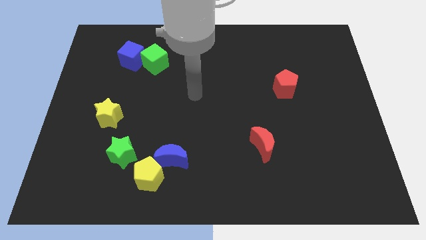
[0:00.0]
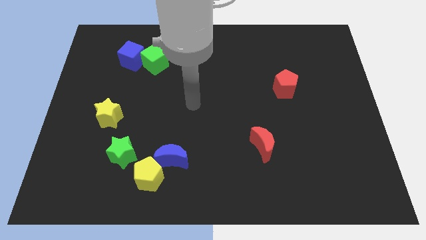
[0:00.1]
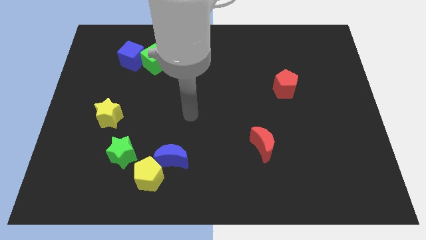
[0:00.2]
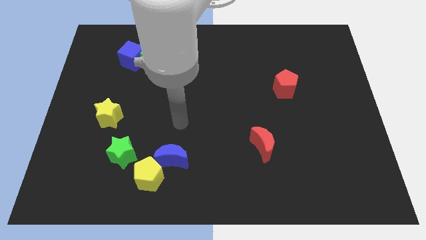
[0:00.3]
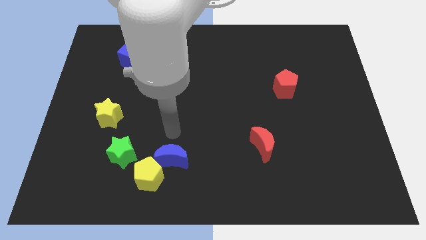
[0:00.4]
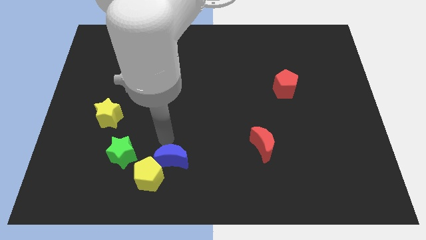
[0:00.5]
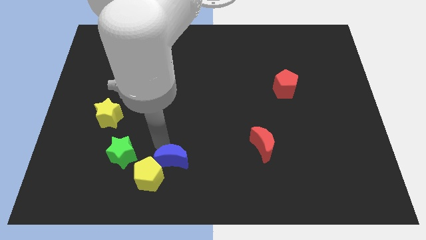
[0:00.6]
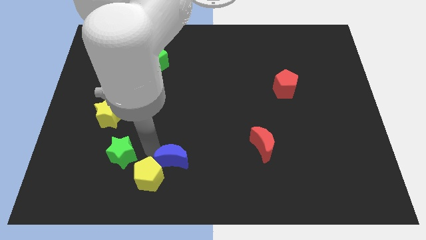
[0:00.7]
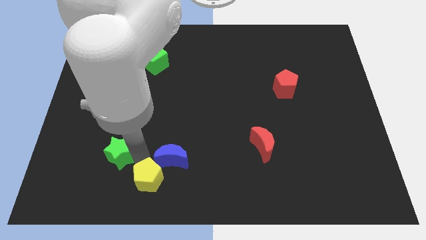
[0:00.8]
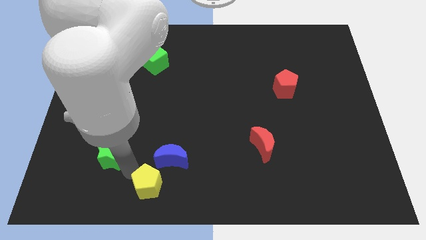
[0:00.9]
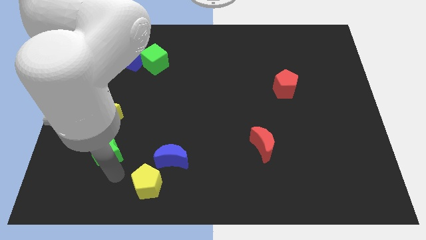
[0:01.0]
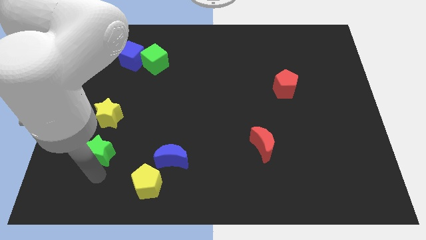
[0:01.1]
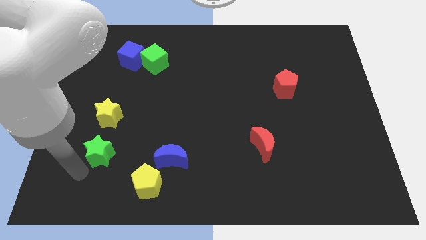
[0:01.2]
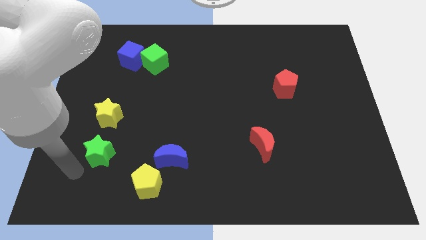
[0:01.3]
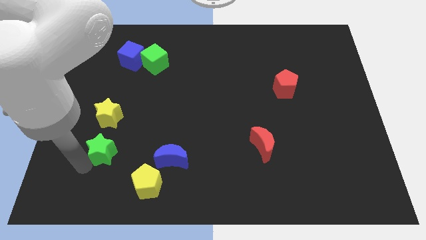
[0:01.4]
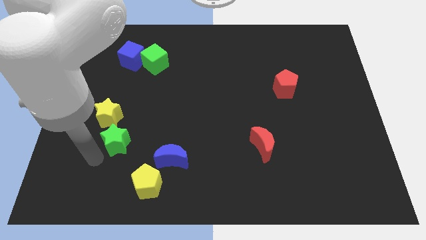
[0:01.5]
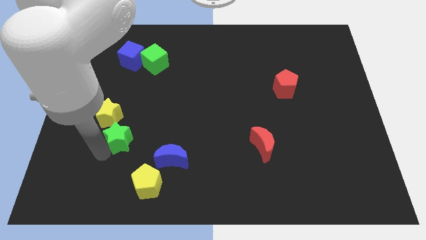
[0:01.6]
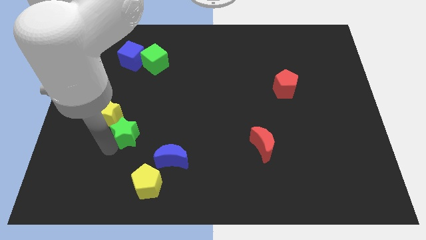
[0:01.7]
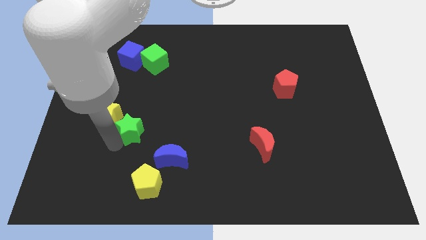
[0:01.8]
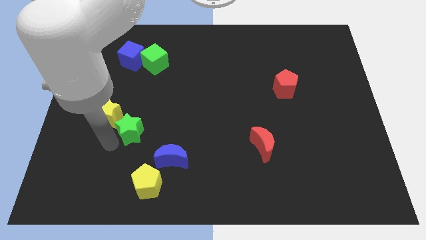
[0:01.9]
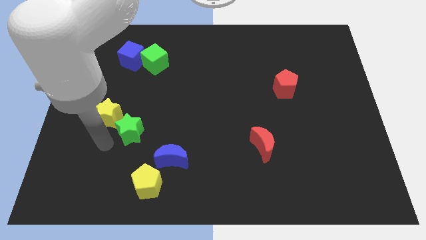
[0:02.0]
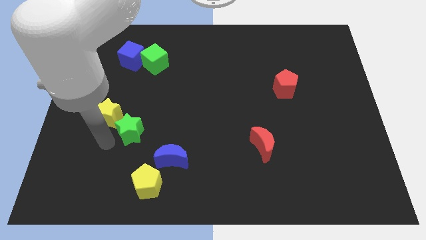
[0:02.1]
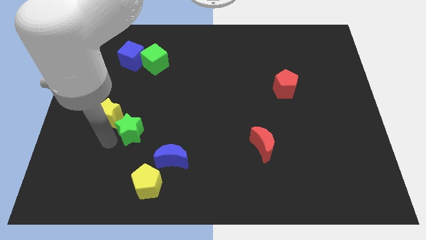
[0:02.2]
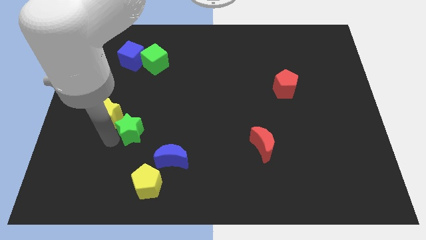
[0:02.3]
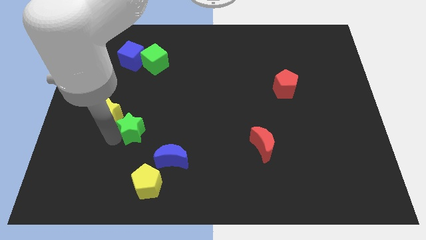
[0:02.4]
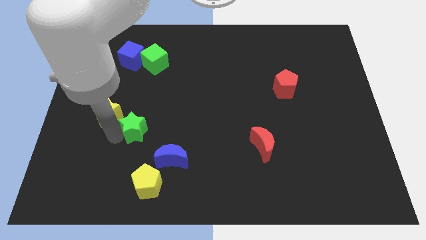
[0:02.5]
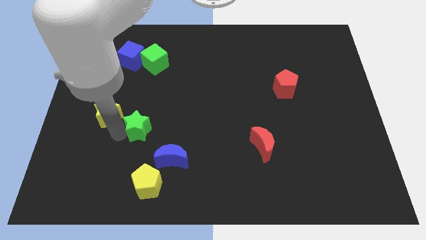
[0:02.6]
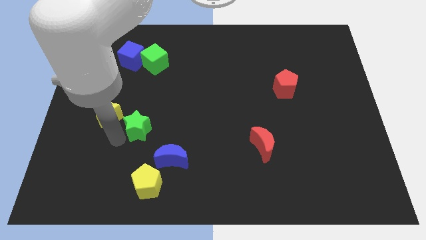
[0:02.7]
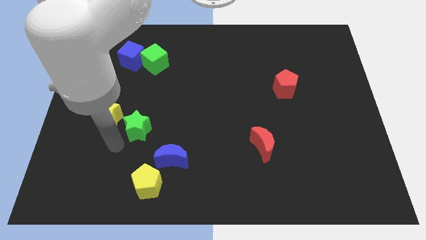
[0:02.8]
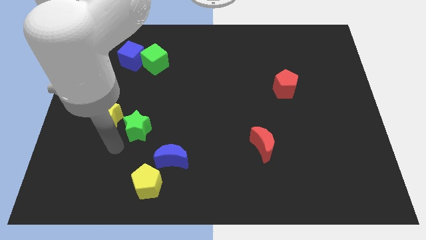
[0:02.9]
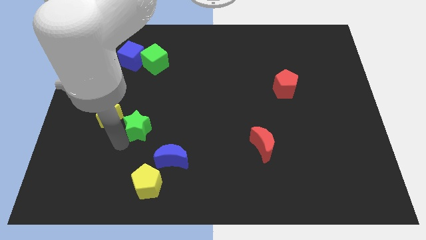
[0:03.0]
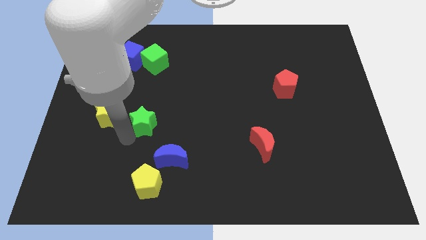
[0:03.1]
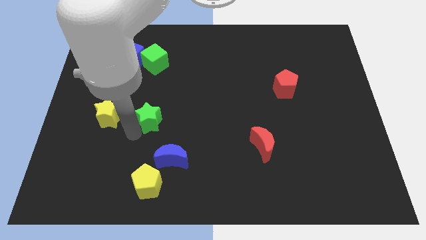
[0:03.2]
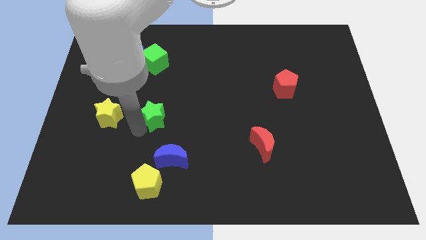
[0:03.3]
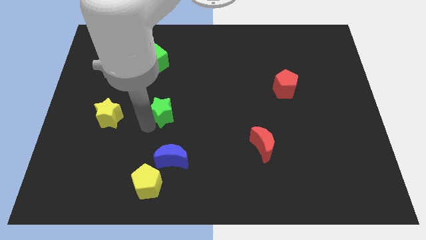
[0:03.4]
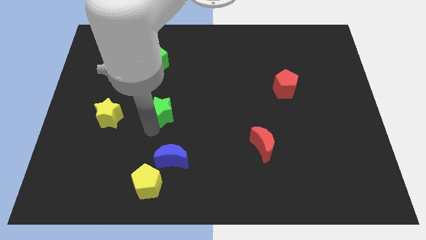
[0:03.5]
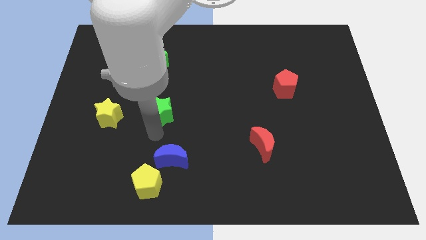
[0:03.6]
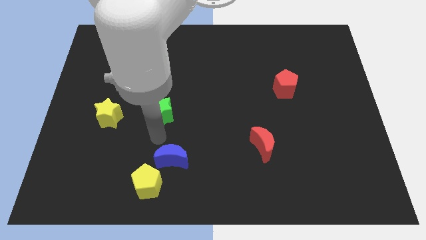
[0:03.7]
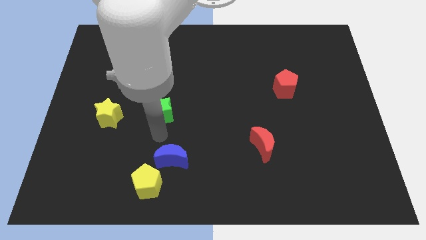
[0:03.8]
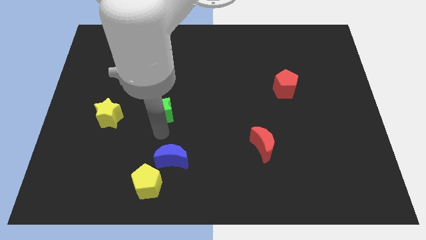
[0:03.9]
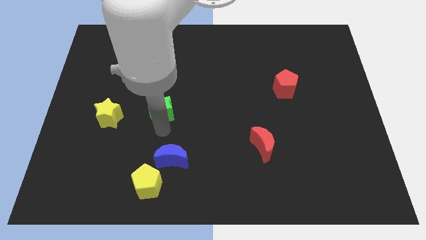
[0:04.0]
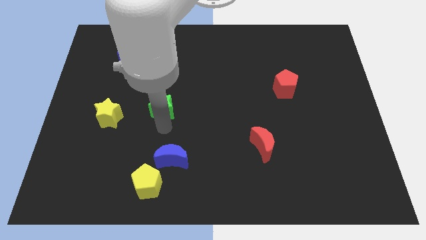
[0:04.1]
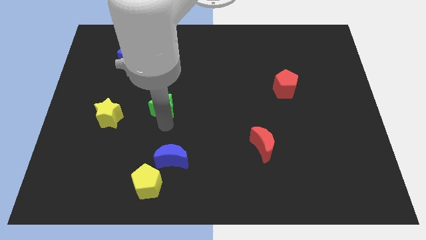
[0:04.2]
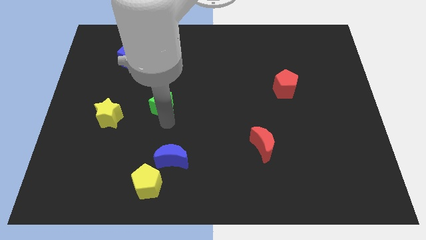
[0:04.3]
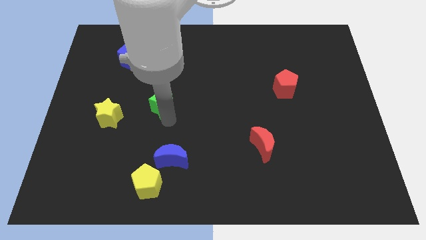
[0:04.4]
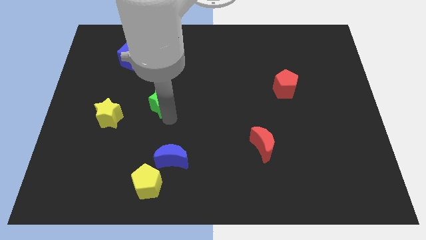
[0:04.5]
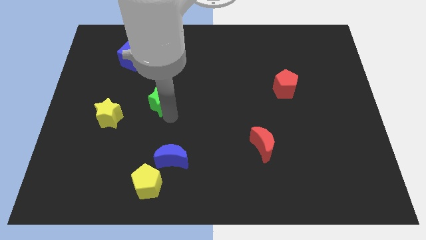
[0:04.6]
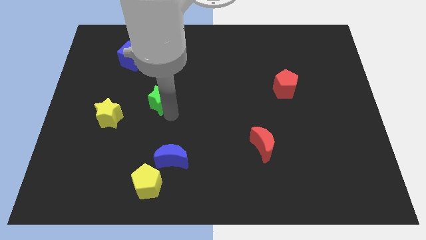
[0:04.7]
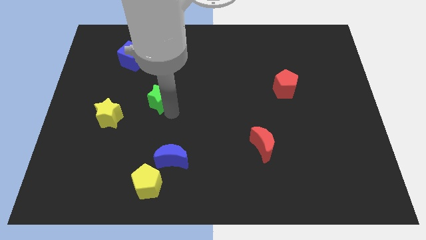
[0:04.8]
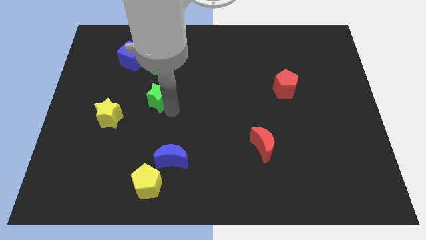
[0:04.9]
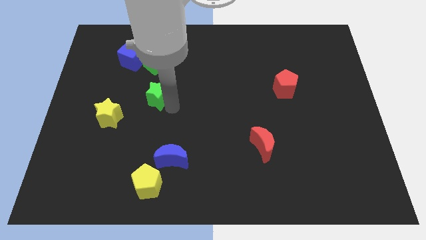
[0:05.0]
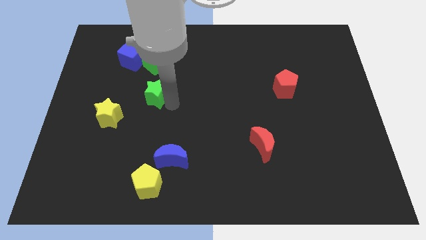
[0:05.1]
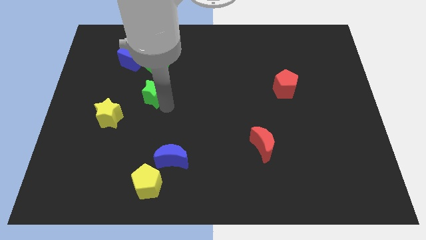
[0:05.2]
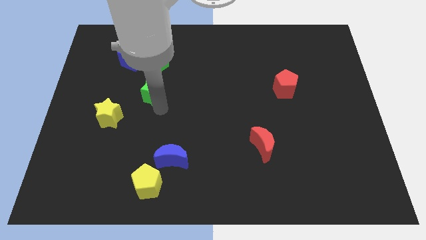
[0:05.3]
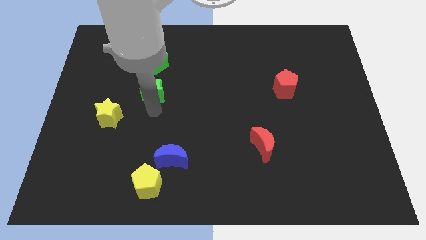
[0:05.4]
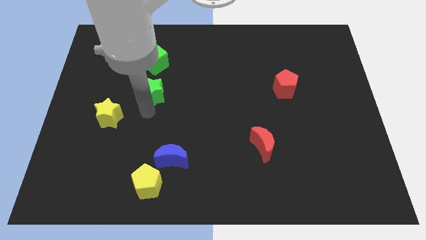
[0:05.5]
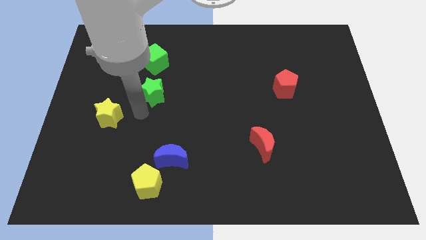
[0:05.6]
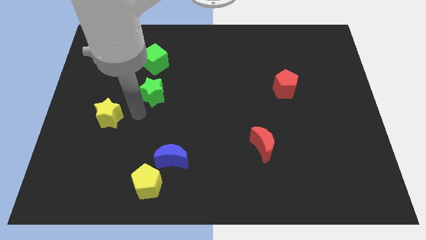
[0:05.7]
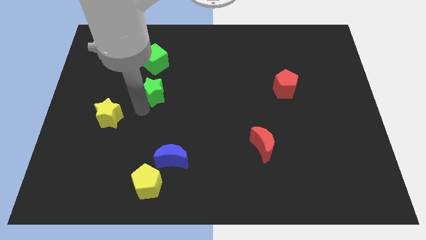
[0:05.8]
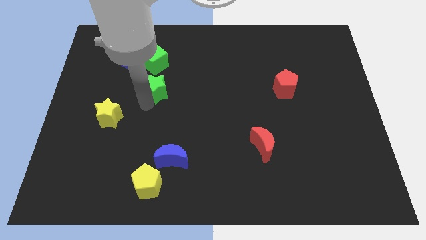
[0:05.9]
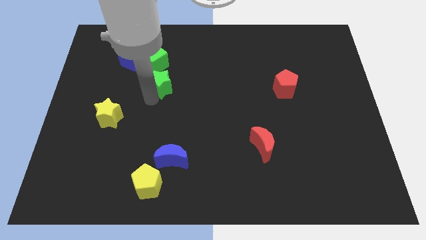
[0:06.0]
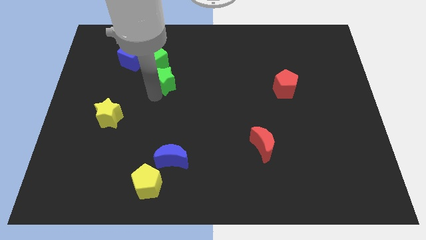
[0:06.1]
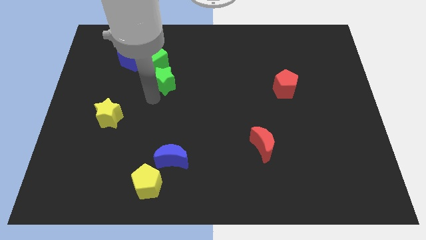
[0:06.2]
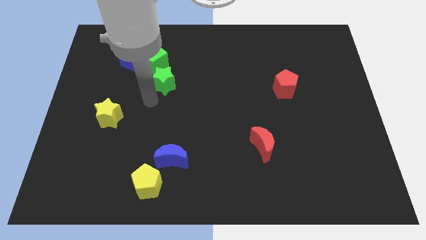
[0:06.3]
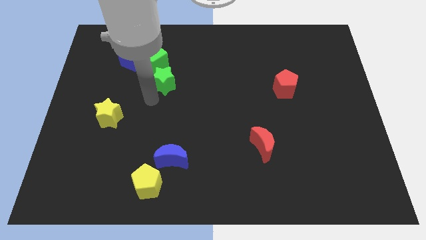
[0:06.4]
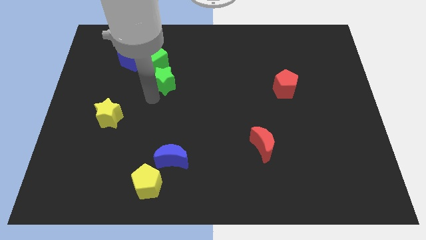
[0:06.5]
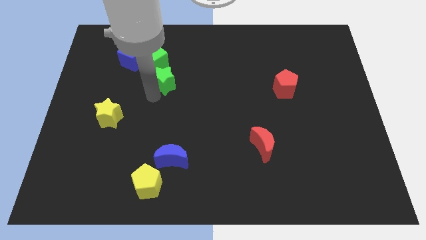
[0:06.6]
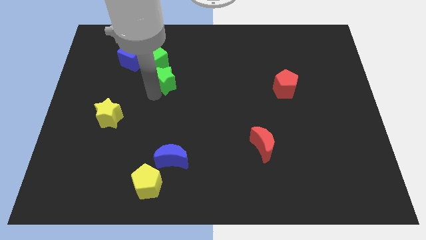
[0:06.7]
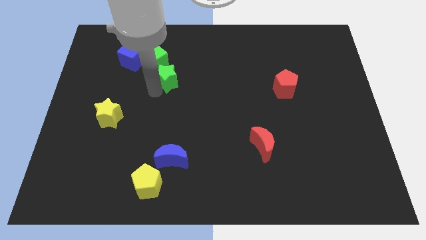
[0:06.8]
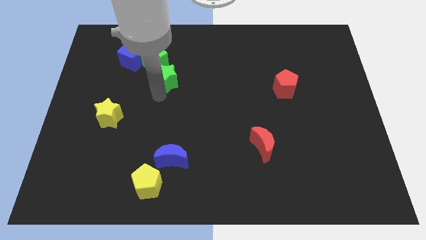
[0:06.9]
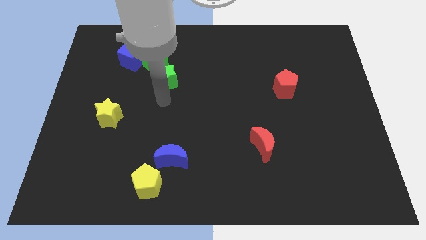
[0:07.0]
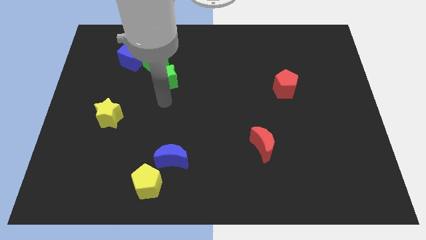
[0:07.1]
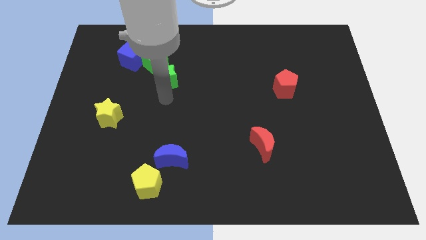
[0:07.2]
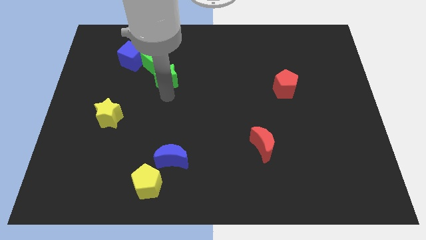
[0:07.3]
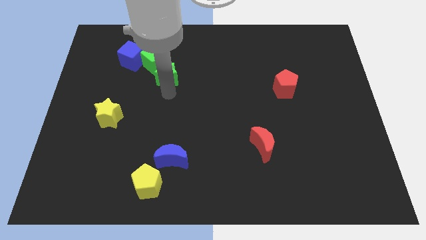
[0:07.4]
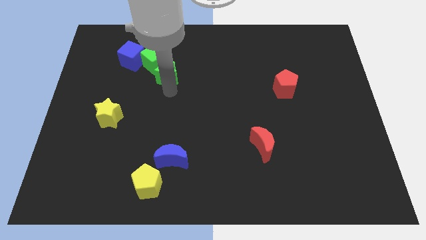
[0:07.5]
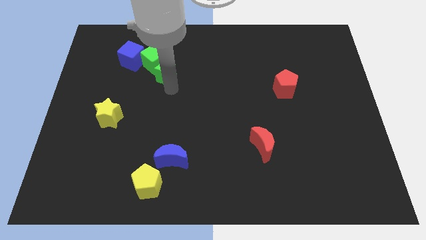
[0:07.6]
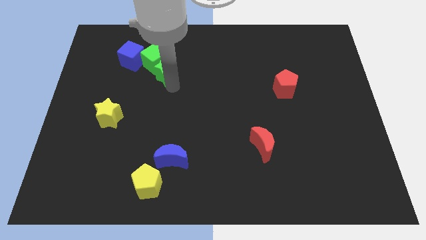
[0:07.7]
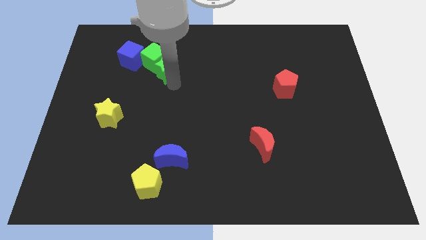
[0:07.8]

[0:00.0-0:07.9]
put the green star to the right side of the blue cube
